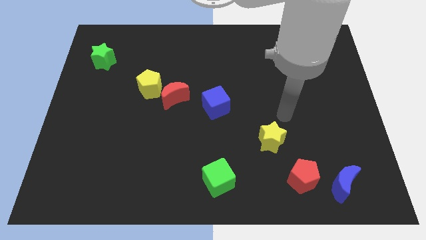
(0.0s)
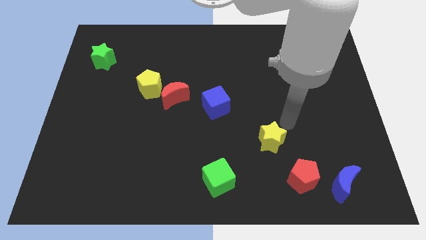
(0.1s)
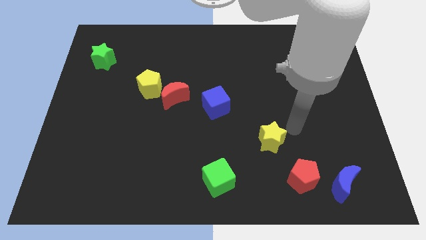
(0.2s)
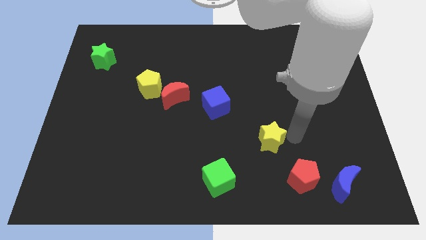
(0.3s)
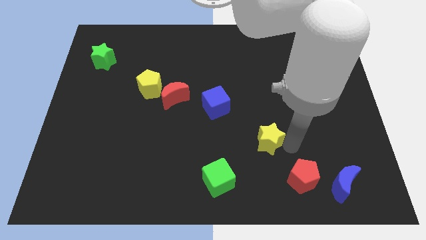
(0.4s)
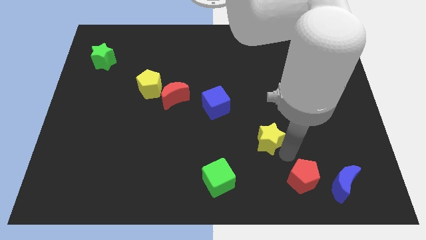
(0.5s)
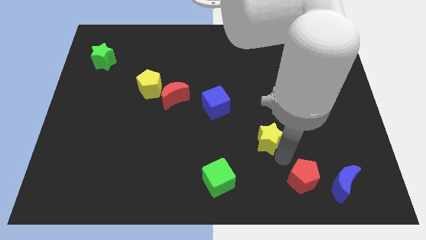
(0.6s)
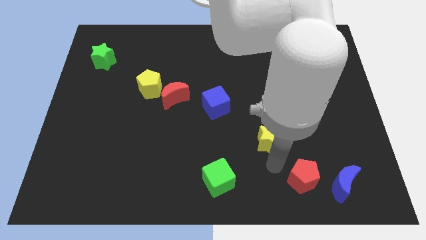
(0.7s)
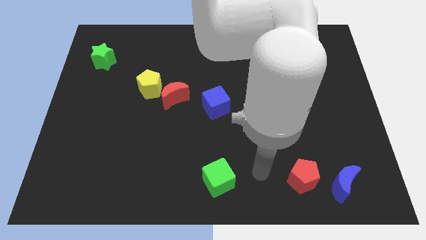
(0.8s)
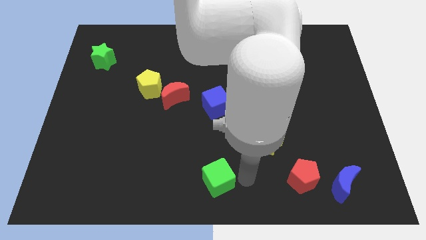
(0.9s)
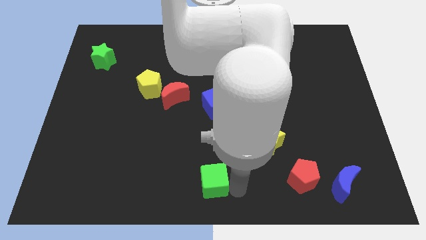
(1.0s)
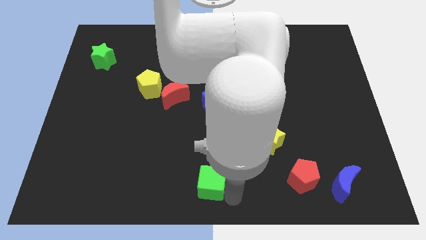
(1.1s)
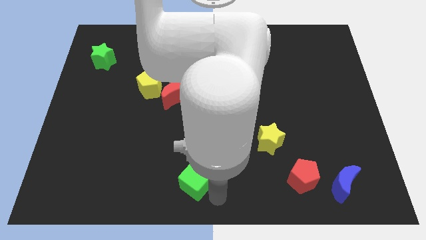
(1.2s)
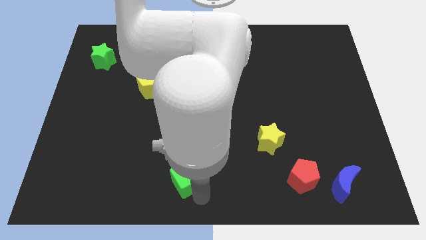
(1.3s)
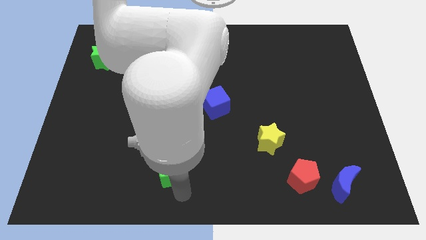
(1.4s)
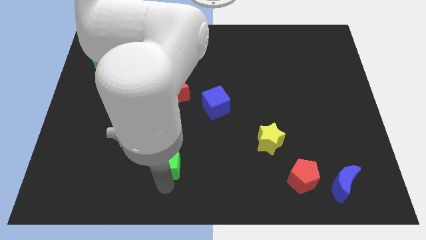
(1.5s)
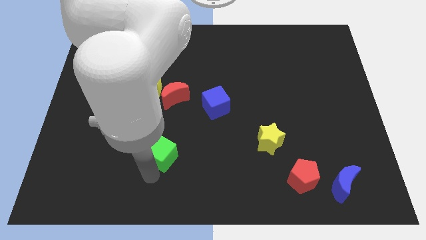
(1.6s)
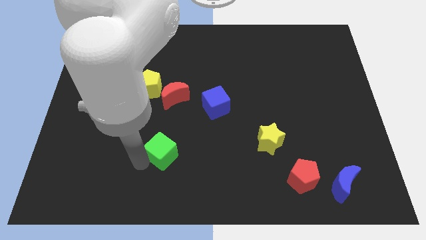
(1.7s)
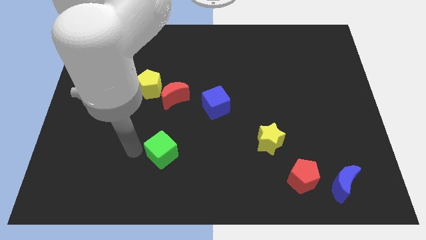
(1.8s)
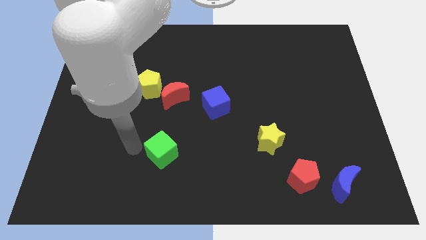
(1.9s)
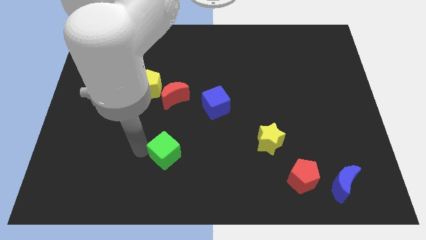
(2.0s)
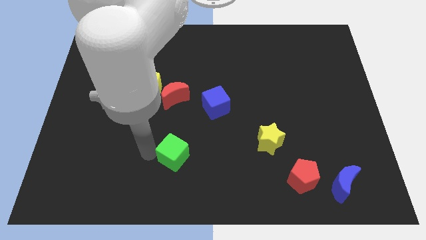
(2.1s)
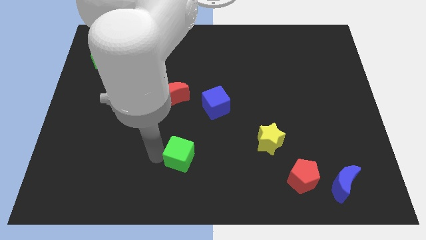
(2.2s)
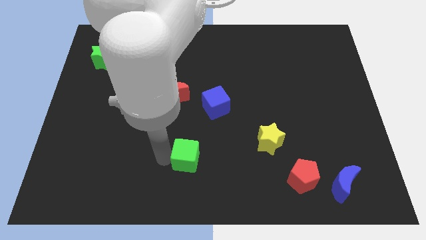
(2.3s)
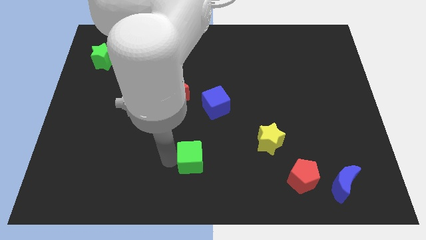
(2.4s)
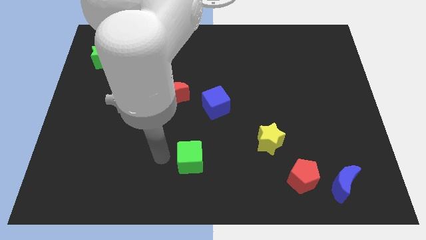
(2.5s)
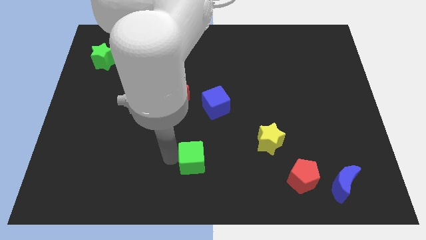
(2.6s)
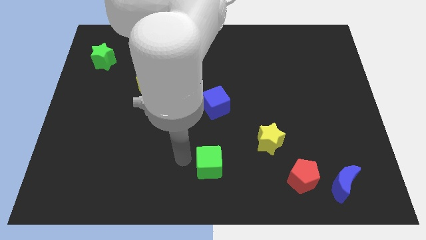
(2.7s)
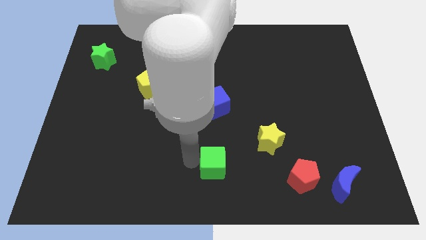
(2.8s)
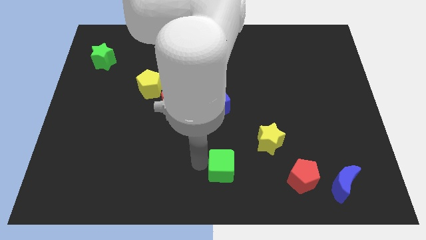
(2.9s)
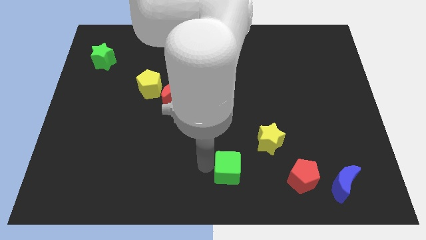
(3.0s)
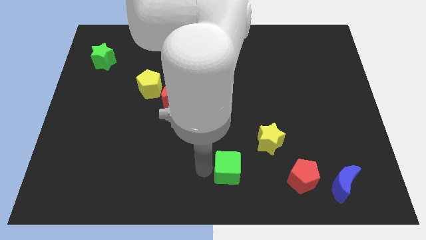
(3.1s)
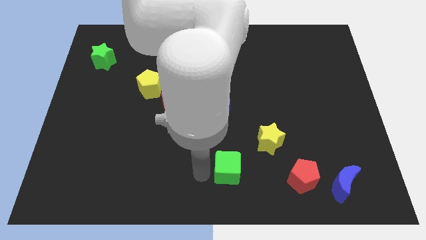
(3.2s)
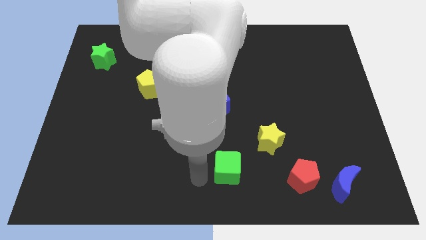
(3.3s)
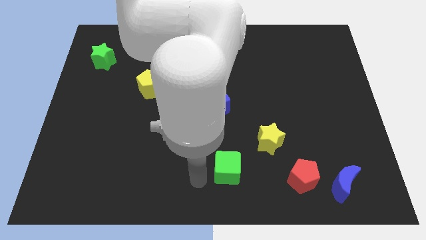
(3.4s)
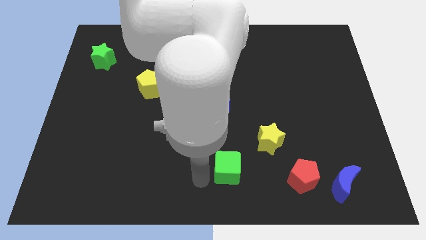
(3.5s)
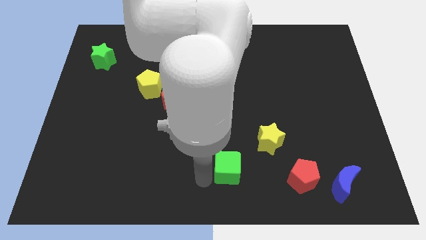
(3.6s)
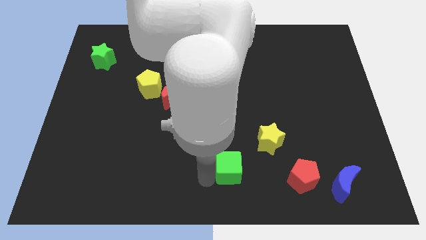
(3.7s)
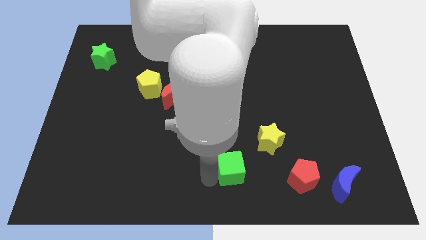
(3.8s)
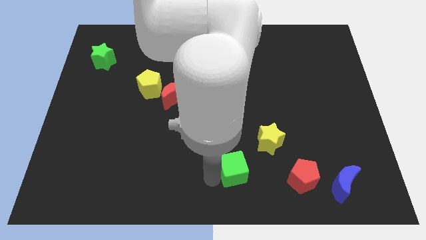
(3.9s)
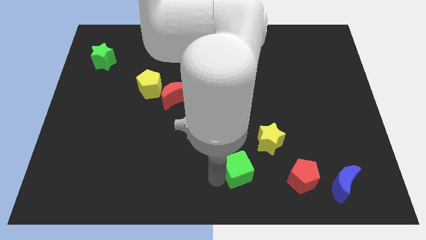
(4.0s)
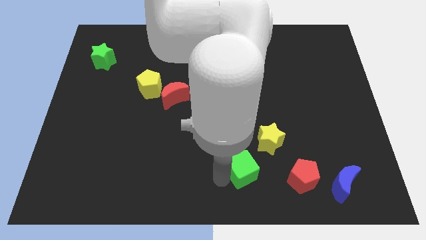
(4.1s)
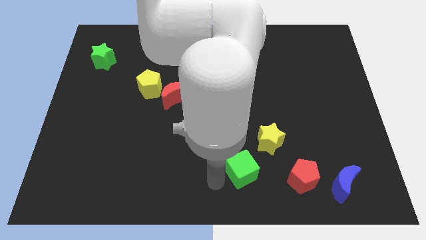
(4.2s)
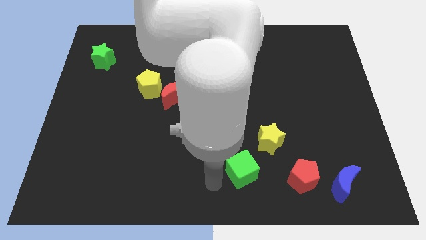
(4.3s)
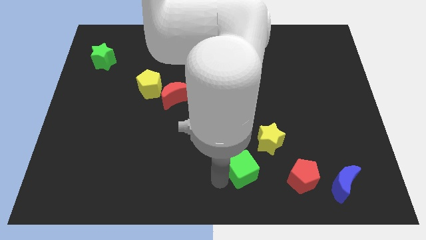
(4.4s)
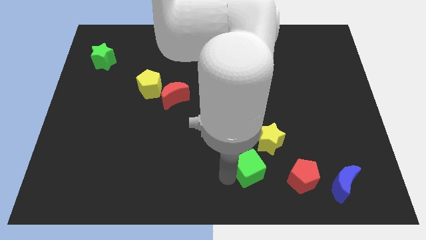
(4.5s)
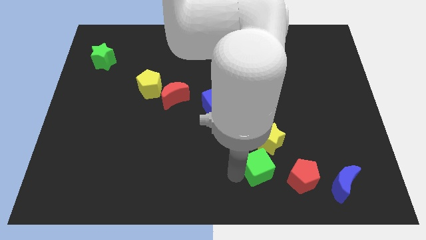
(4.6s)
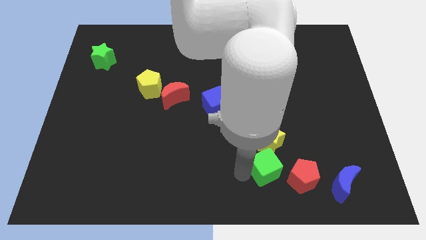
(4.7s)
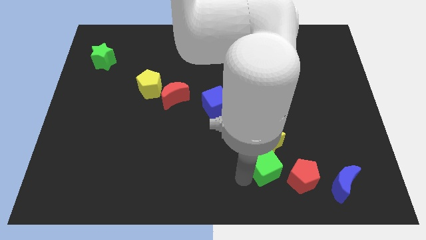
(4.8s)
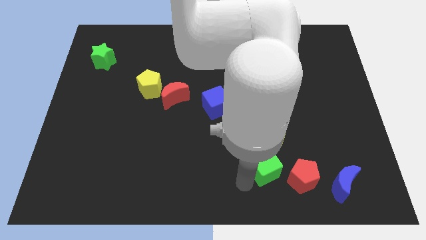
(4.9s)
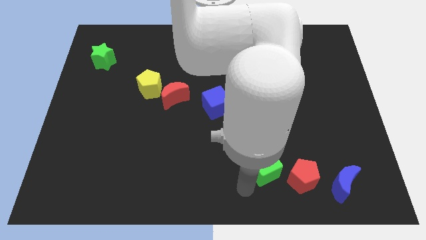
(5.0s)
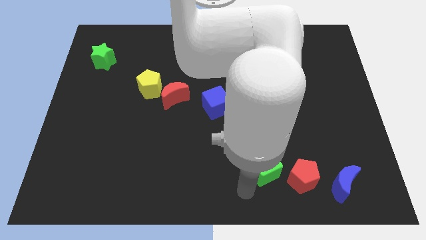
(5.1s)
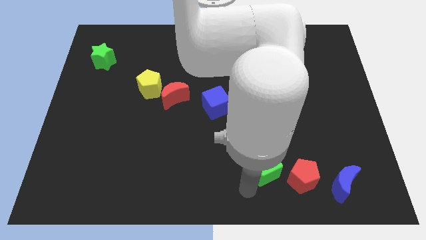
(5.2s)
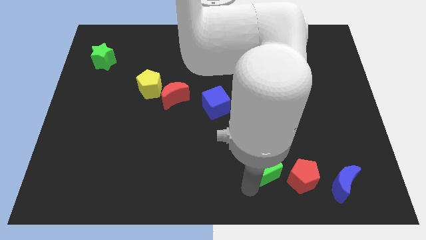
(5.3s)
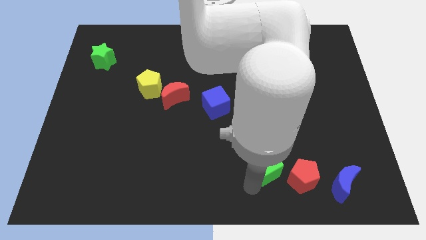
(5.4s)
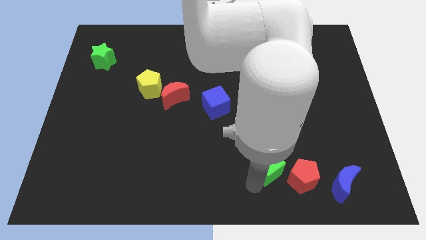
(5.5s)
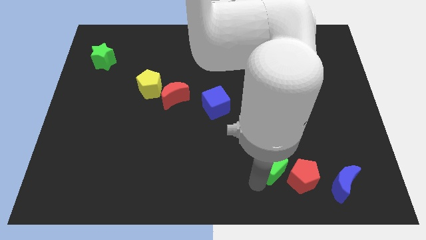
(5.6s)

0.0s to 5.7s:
push the green cube to the bottom right side of the yellow star
